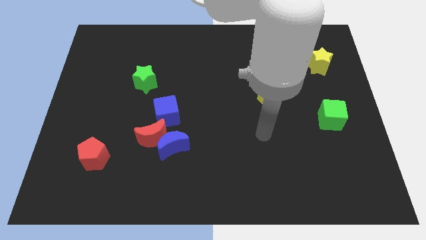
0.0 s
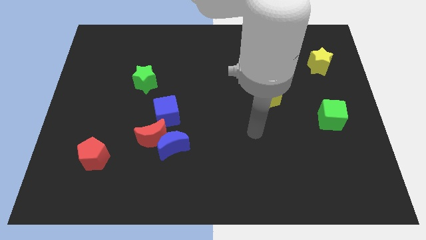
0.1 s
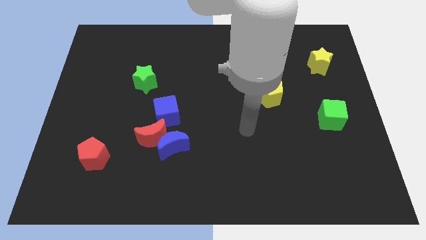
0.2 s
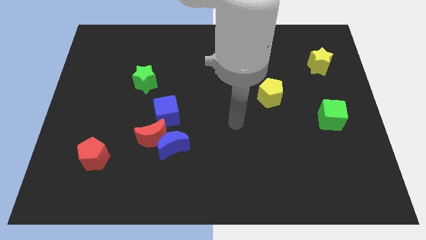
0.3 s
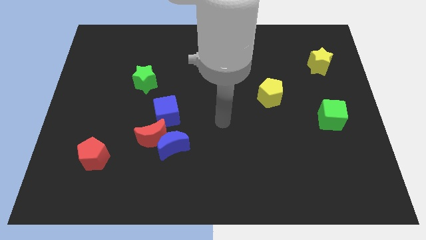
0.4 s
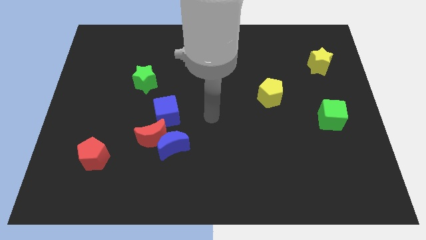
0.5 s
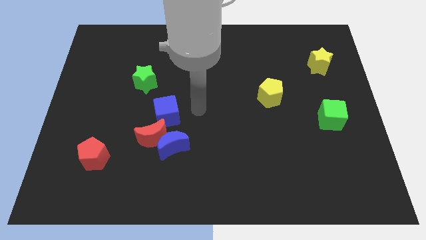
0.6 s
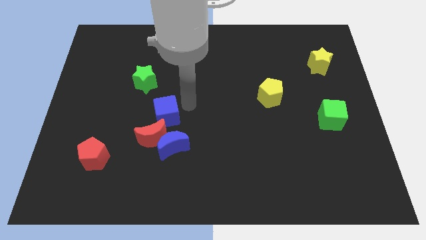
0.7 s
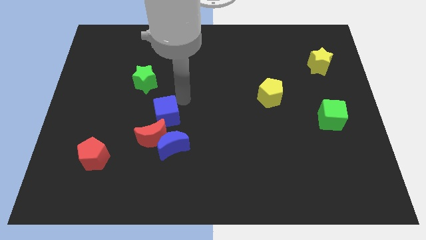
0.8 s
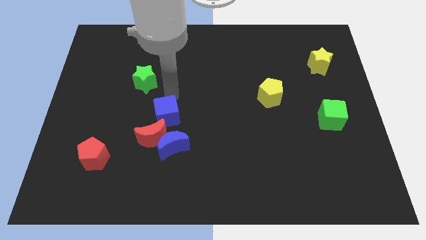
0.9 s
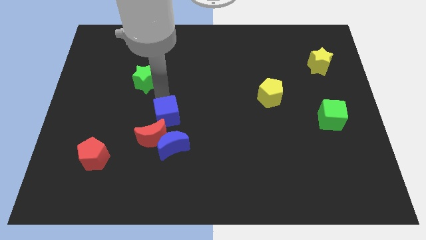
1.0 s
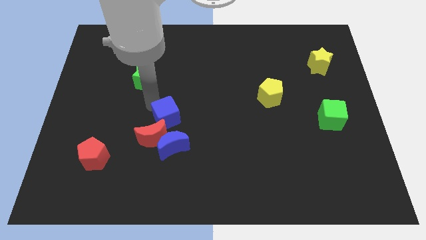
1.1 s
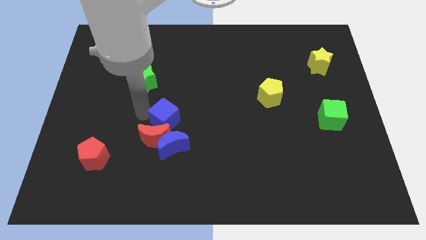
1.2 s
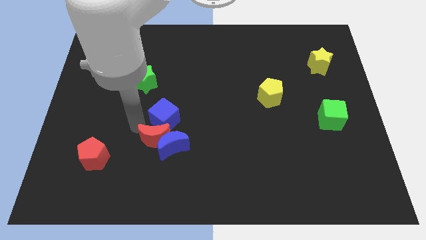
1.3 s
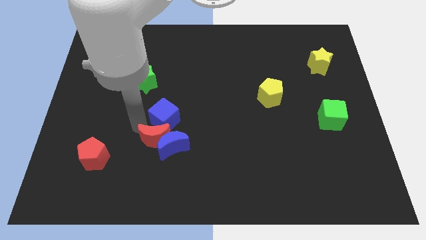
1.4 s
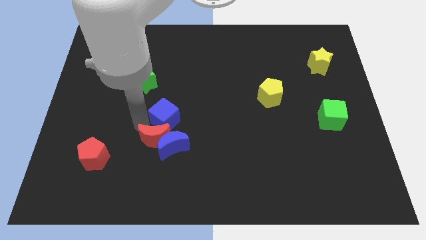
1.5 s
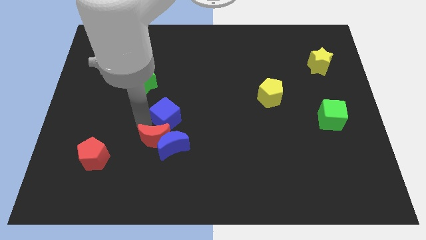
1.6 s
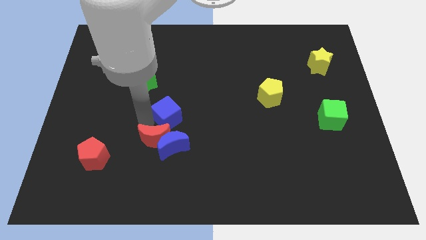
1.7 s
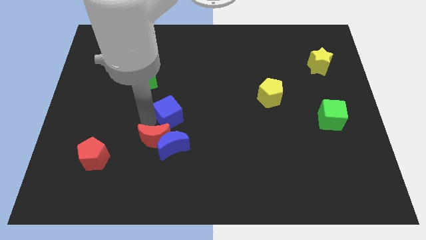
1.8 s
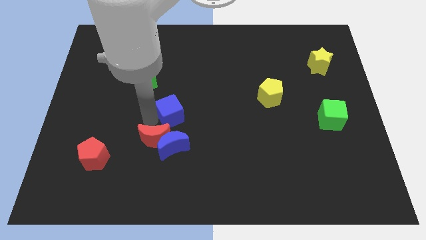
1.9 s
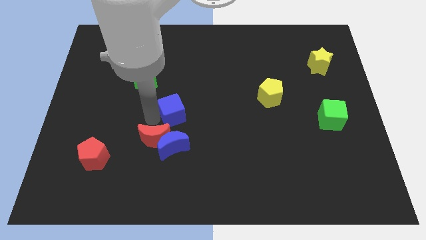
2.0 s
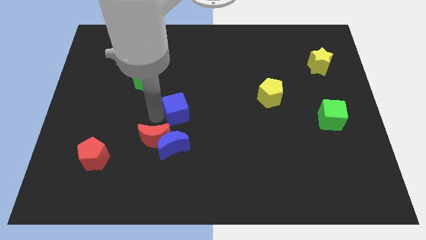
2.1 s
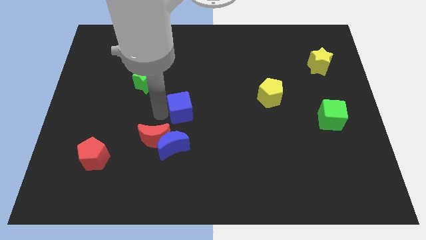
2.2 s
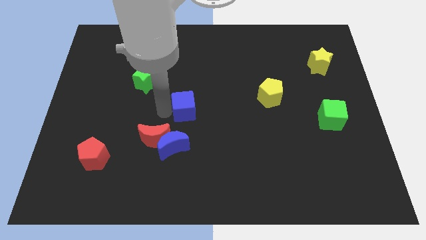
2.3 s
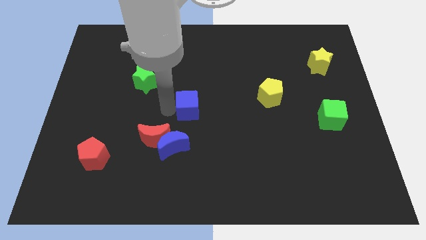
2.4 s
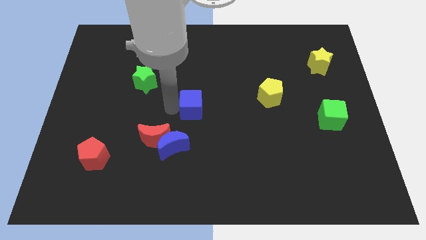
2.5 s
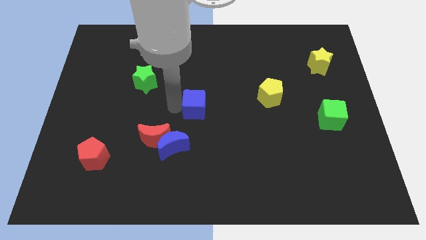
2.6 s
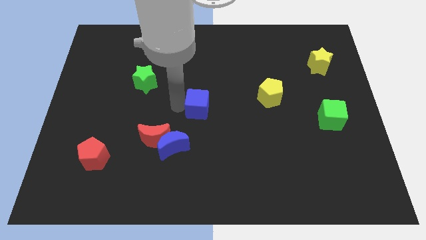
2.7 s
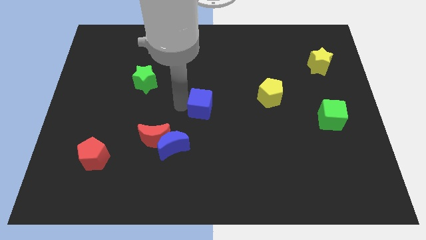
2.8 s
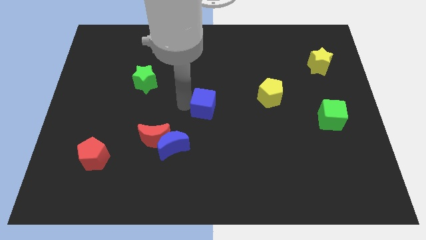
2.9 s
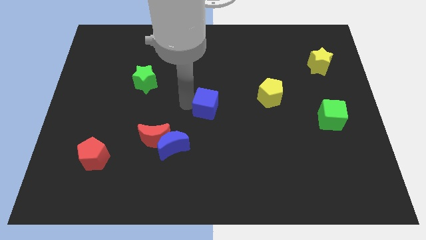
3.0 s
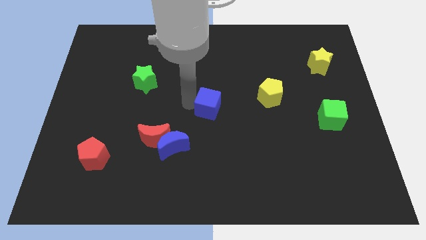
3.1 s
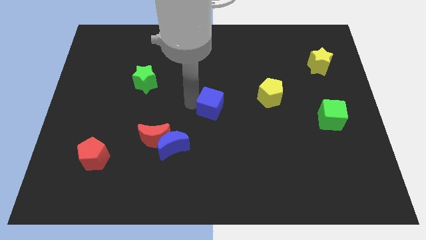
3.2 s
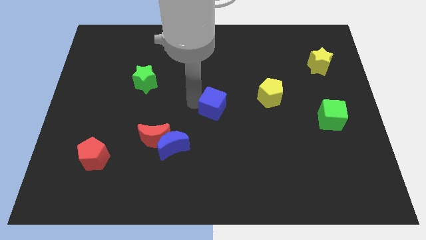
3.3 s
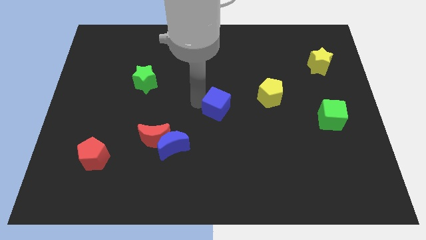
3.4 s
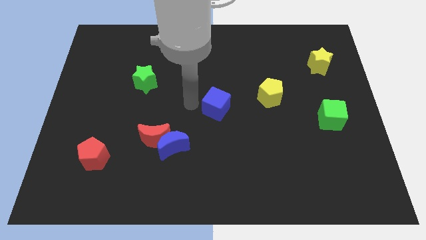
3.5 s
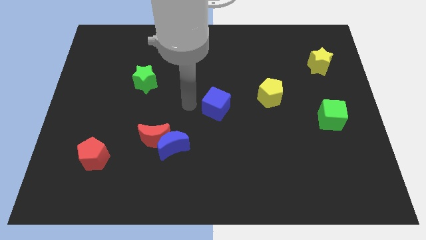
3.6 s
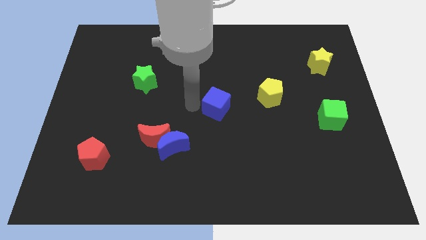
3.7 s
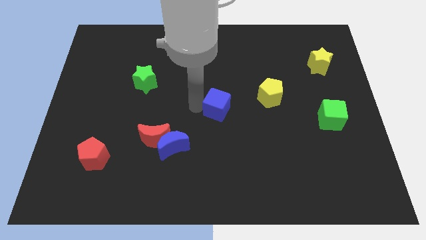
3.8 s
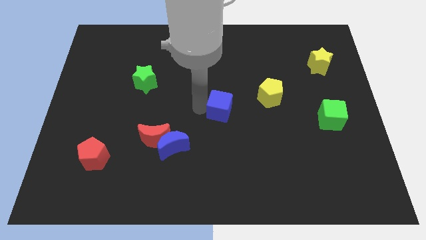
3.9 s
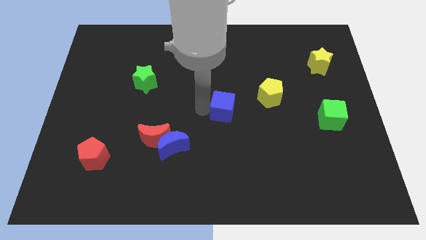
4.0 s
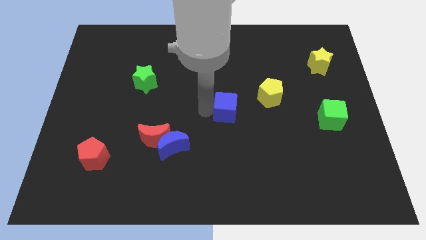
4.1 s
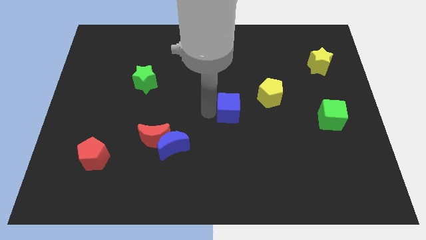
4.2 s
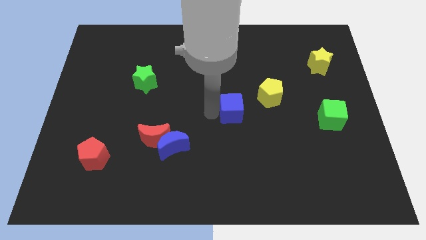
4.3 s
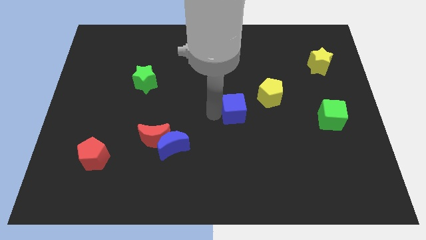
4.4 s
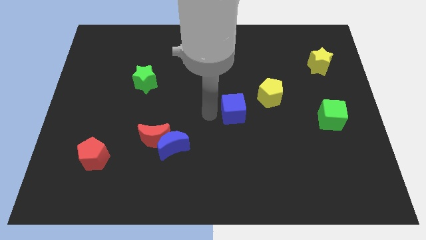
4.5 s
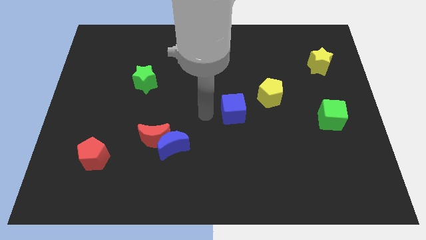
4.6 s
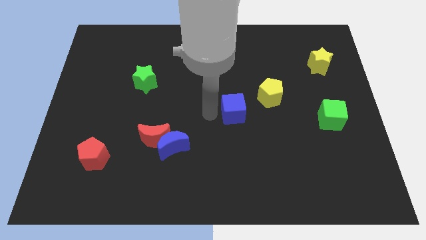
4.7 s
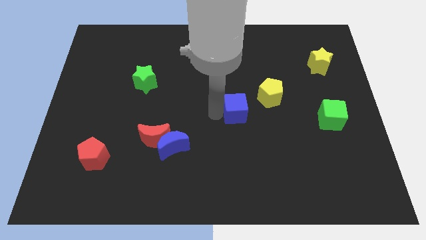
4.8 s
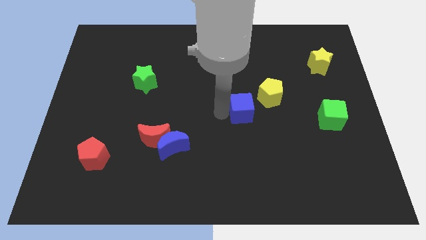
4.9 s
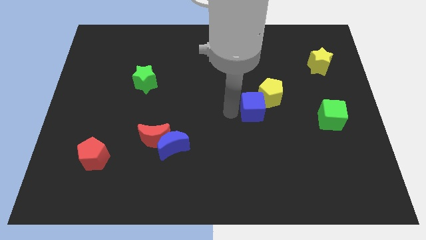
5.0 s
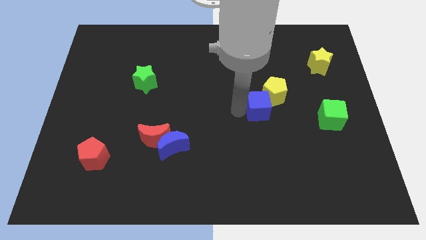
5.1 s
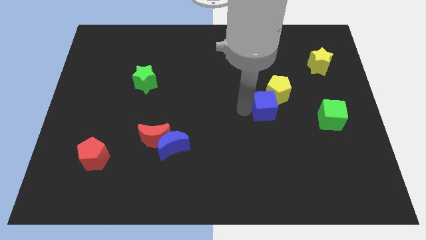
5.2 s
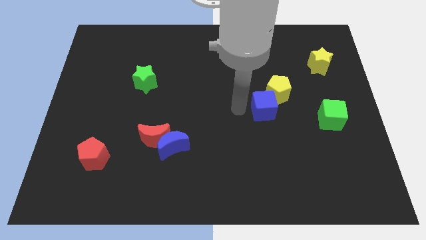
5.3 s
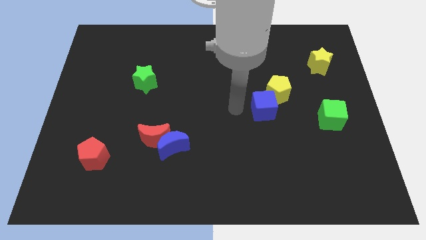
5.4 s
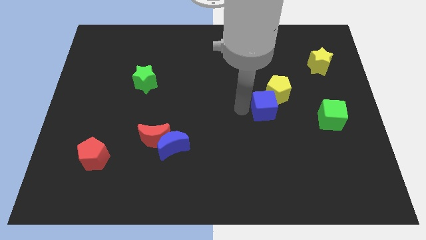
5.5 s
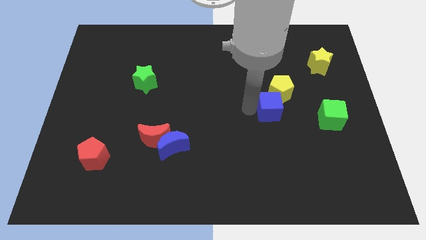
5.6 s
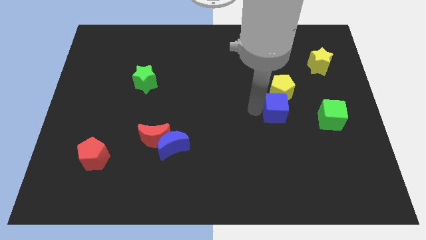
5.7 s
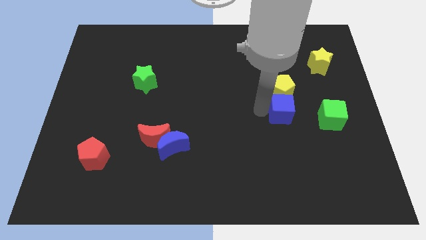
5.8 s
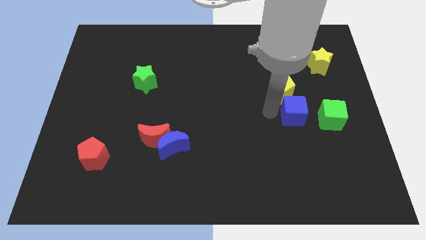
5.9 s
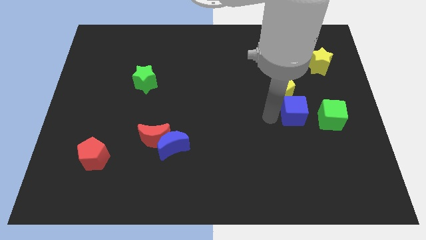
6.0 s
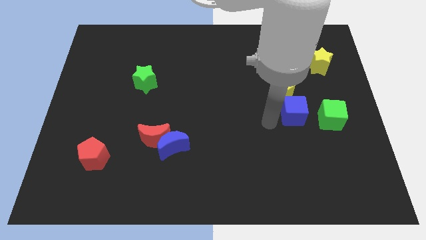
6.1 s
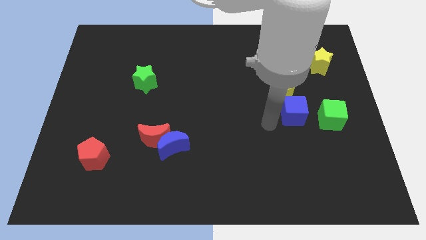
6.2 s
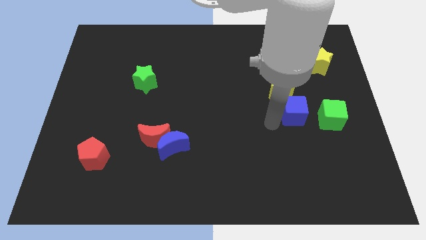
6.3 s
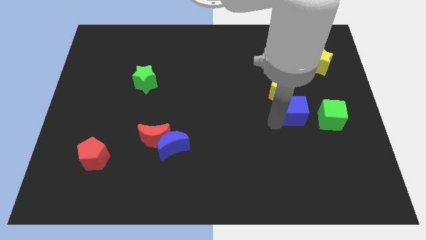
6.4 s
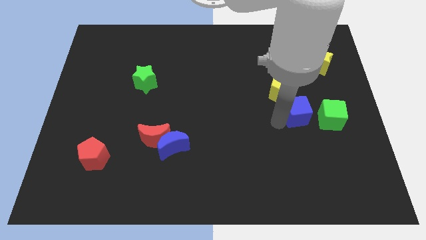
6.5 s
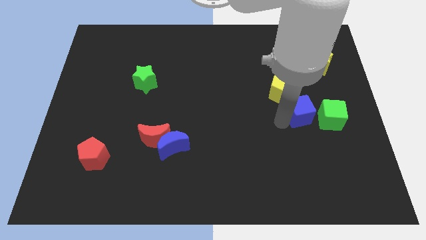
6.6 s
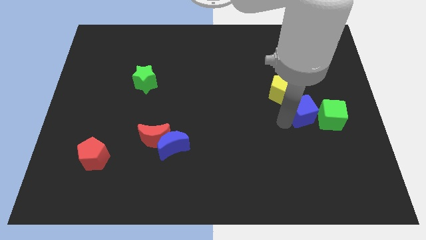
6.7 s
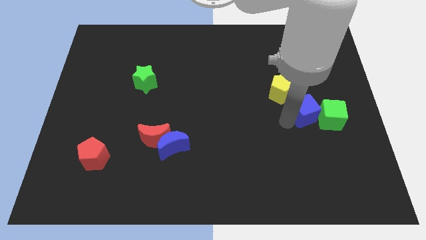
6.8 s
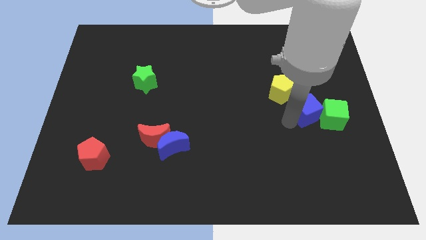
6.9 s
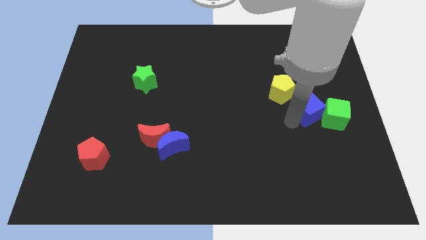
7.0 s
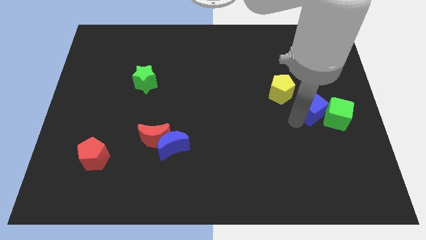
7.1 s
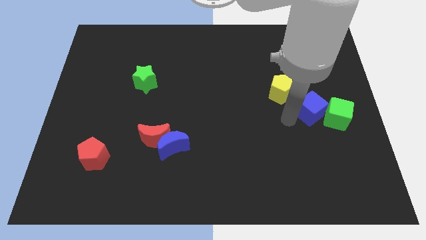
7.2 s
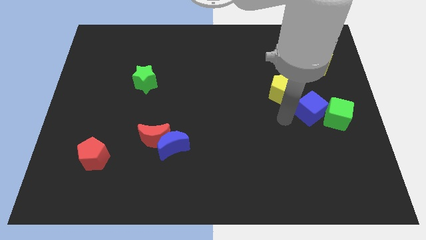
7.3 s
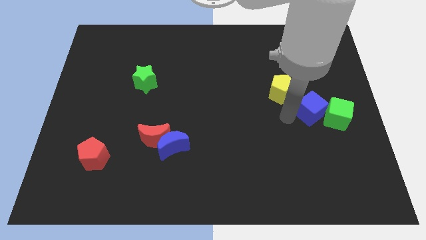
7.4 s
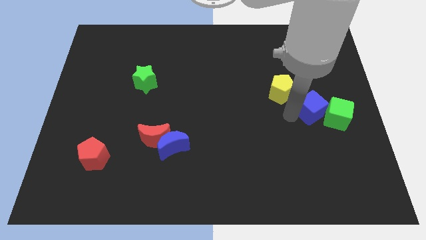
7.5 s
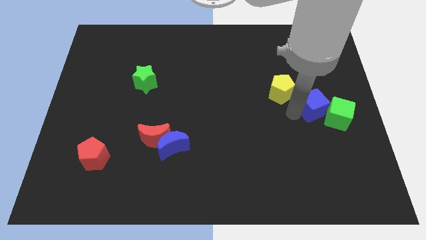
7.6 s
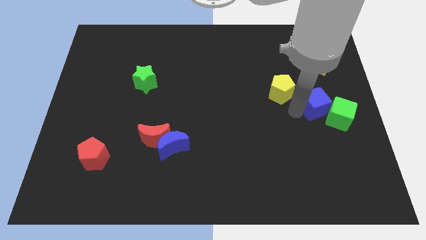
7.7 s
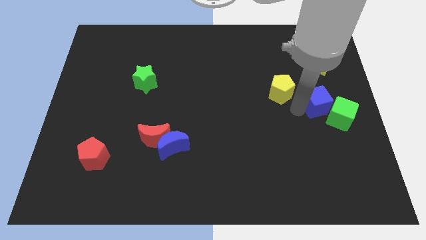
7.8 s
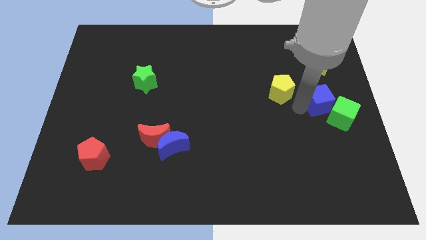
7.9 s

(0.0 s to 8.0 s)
put the blue cube to the right side
